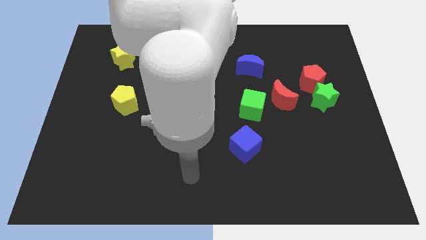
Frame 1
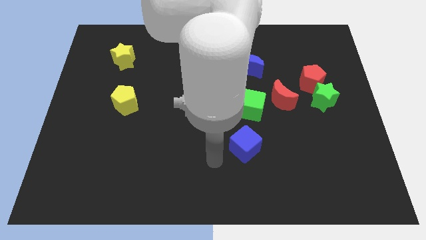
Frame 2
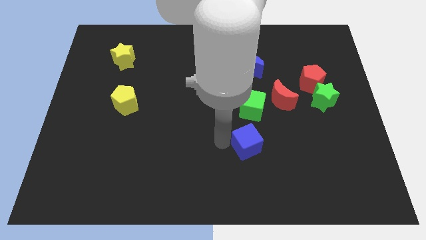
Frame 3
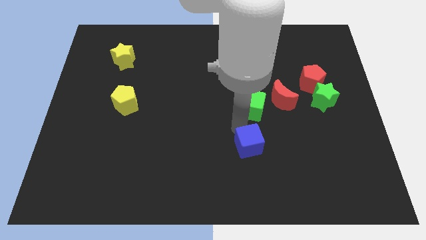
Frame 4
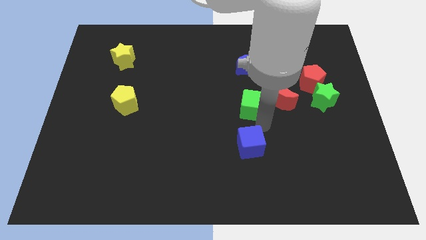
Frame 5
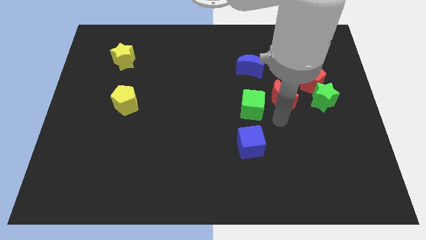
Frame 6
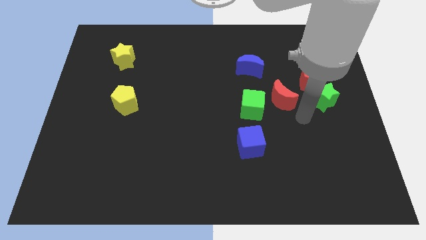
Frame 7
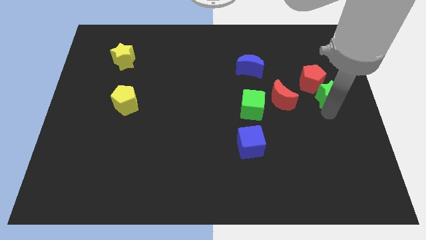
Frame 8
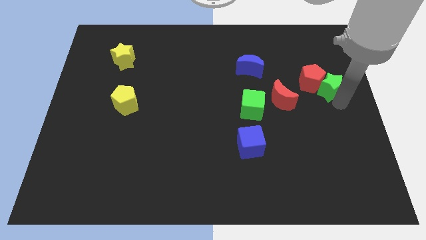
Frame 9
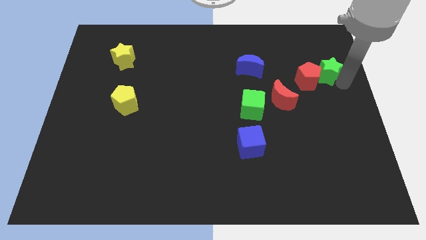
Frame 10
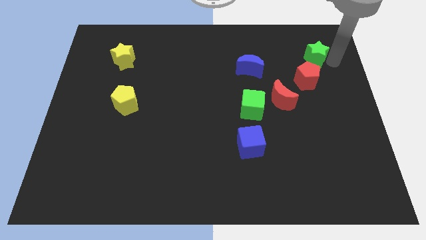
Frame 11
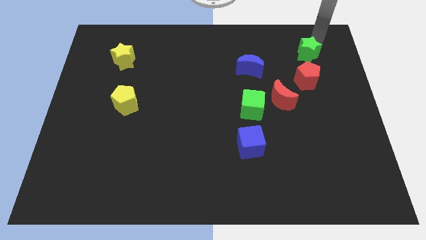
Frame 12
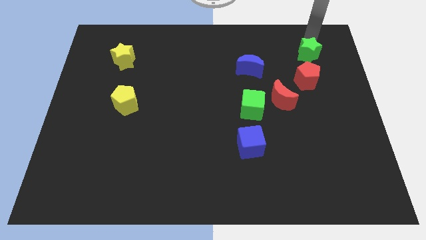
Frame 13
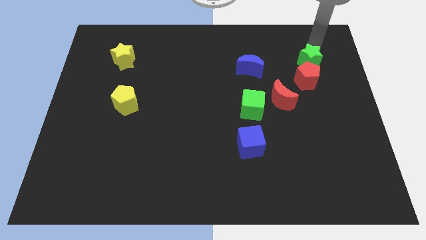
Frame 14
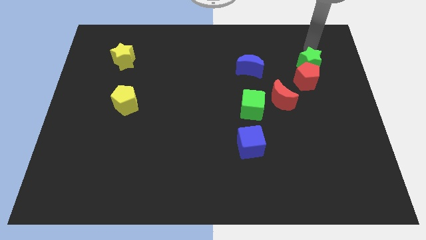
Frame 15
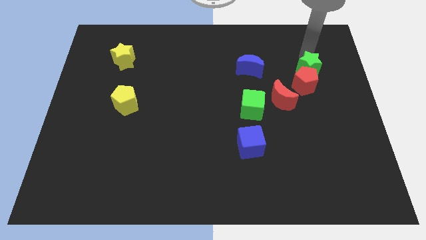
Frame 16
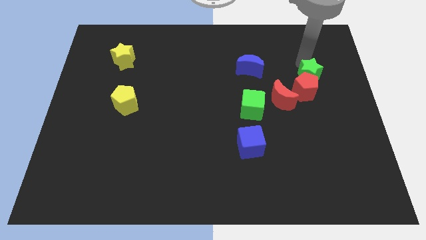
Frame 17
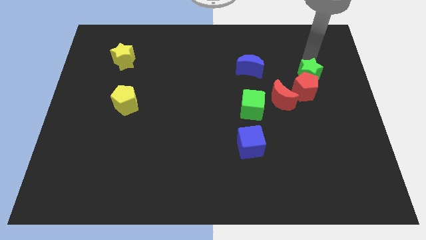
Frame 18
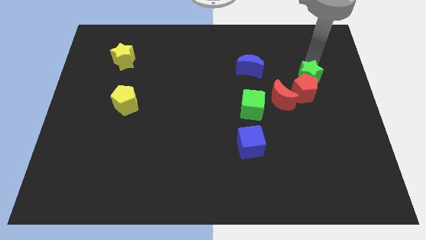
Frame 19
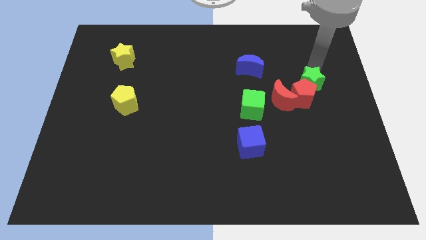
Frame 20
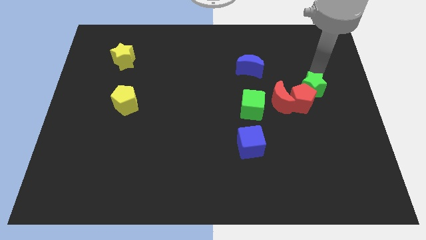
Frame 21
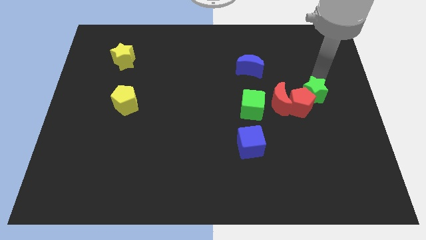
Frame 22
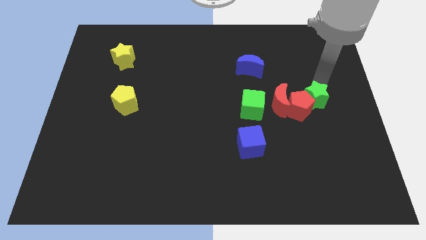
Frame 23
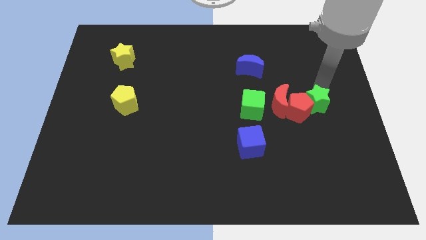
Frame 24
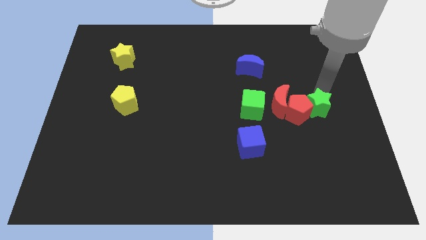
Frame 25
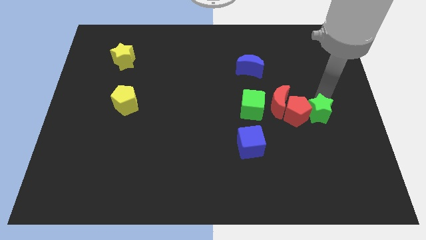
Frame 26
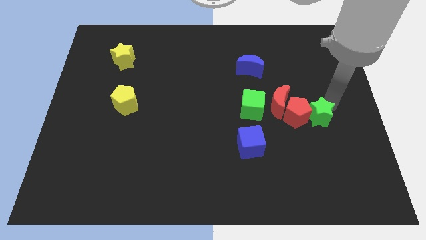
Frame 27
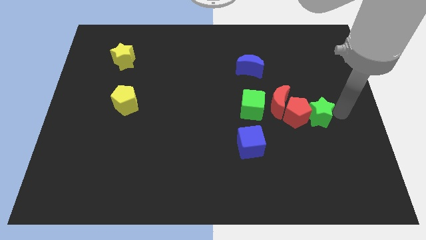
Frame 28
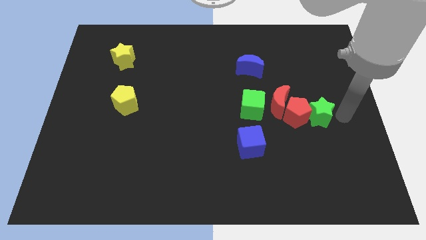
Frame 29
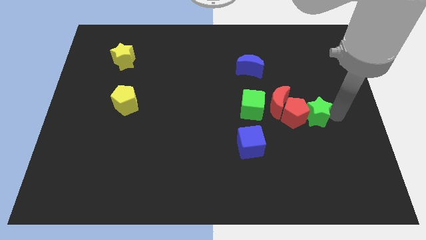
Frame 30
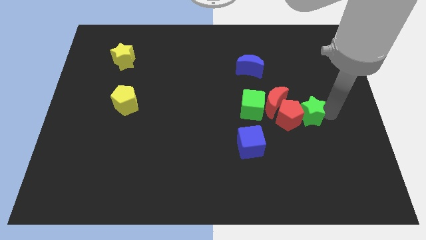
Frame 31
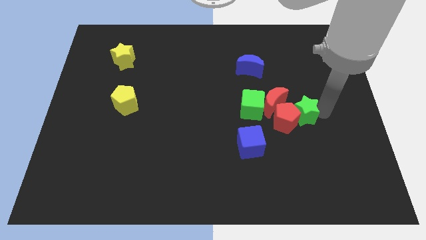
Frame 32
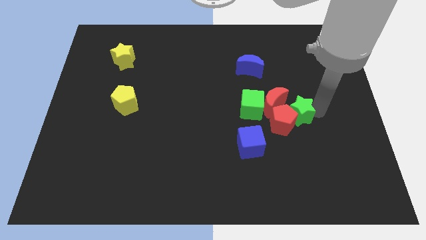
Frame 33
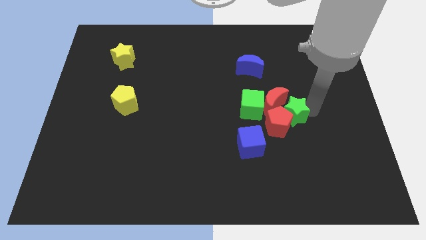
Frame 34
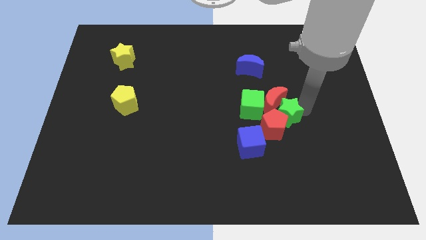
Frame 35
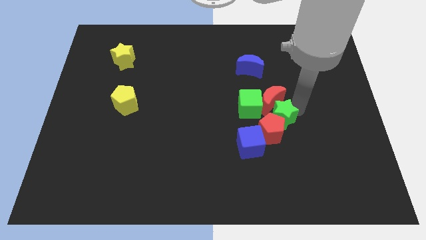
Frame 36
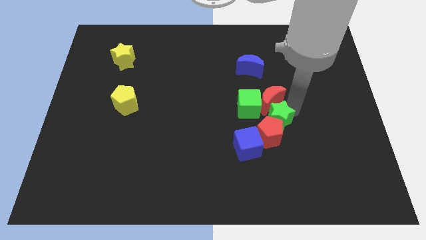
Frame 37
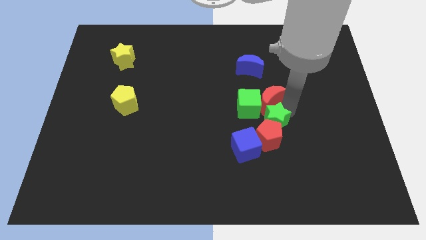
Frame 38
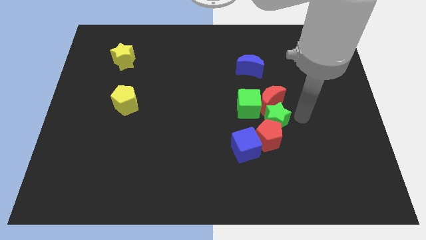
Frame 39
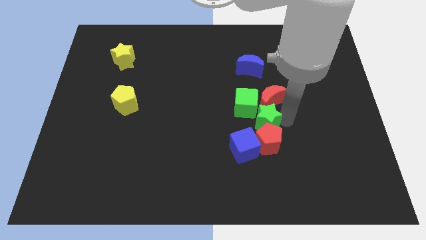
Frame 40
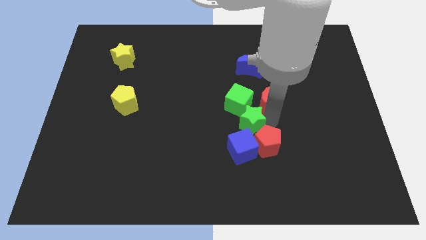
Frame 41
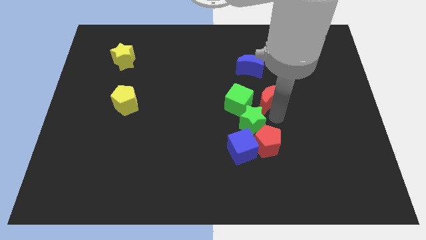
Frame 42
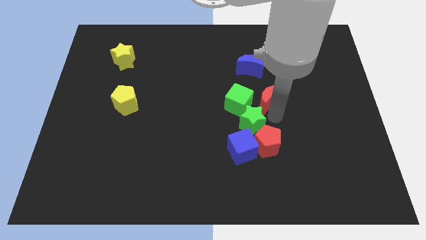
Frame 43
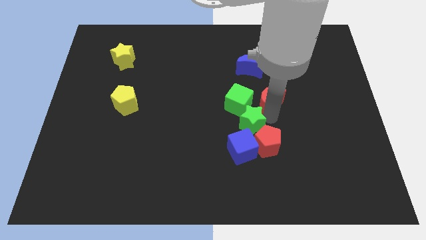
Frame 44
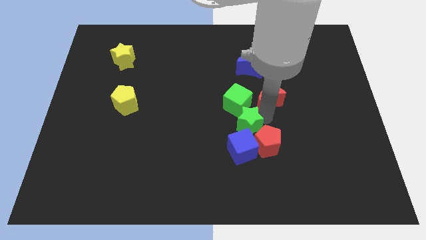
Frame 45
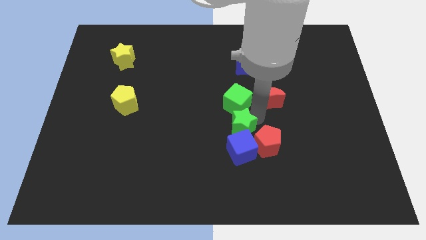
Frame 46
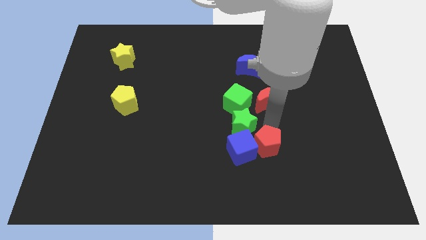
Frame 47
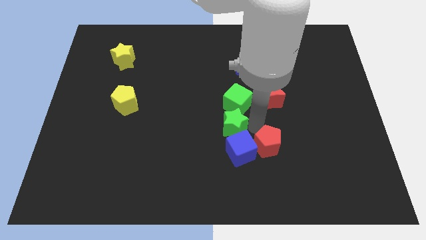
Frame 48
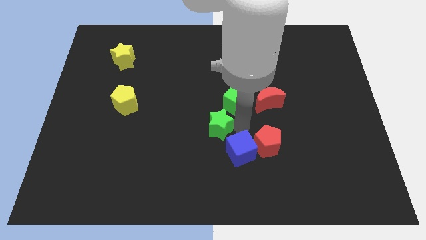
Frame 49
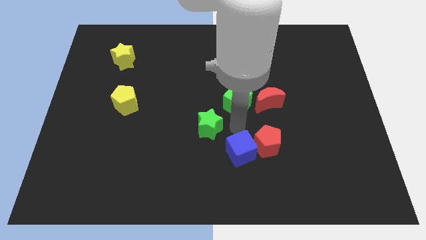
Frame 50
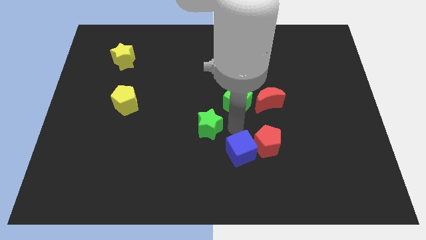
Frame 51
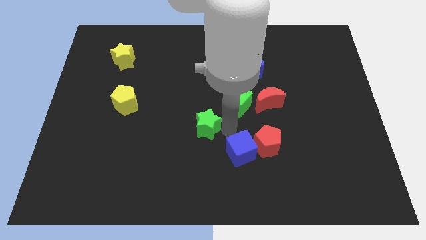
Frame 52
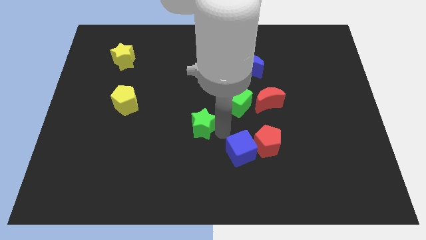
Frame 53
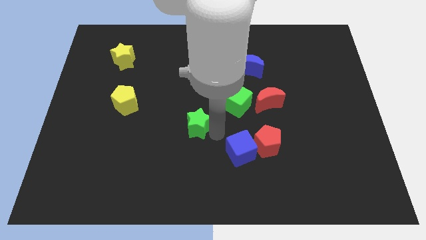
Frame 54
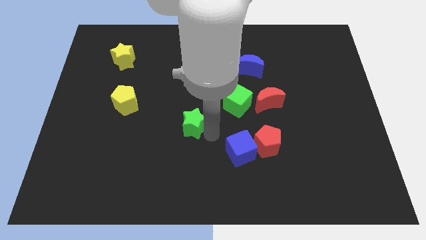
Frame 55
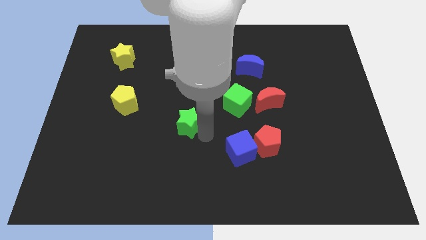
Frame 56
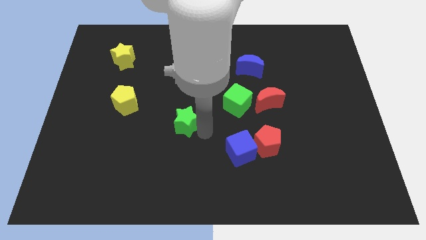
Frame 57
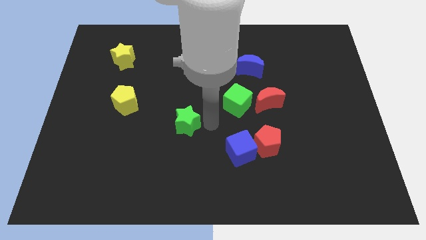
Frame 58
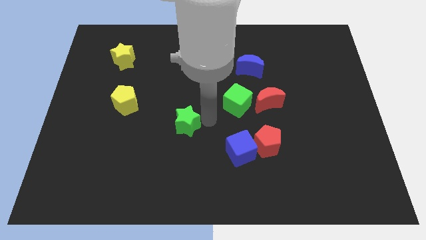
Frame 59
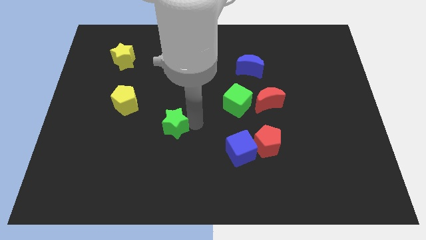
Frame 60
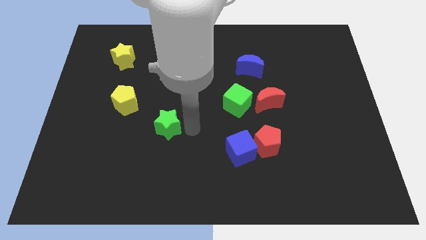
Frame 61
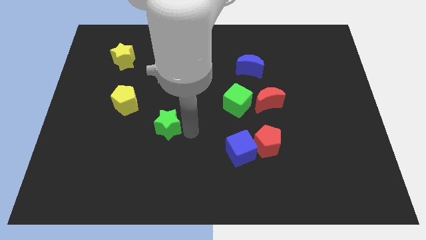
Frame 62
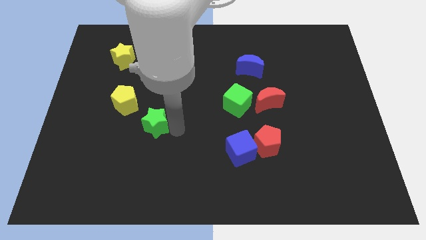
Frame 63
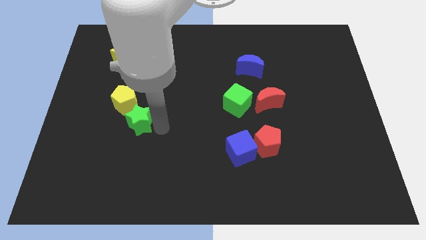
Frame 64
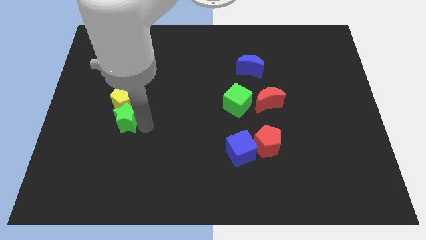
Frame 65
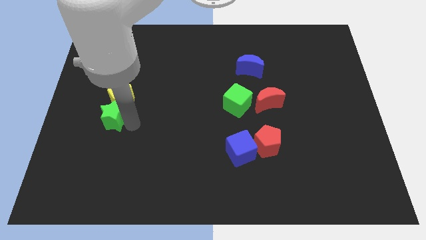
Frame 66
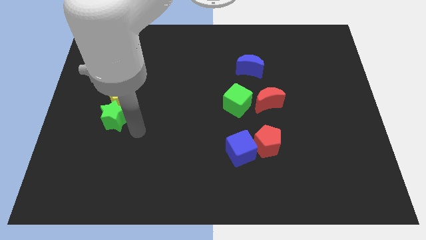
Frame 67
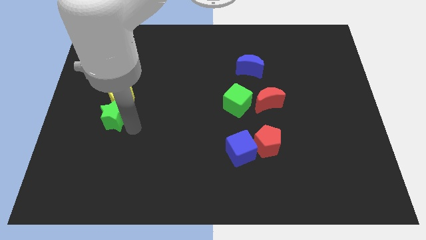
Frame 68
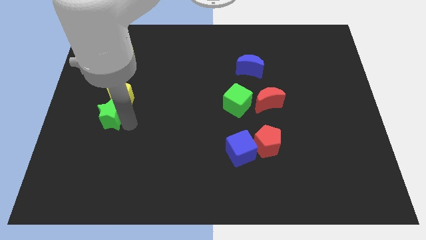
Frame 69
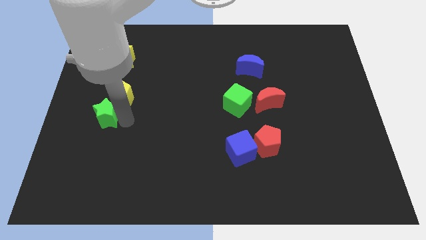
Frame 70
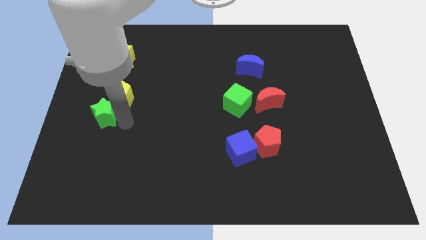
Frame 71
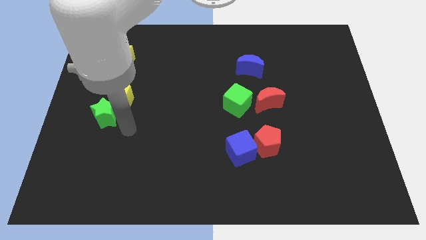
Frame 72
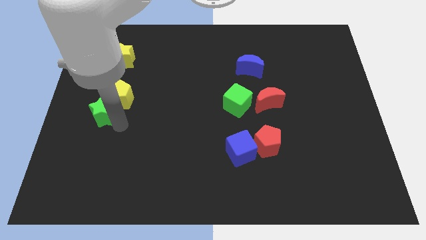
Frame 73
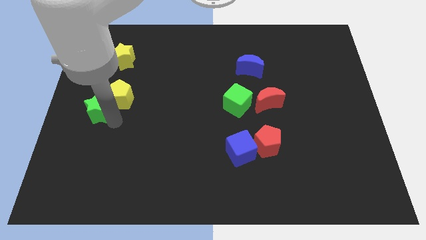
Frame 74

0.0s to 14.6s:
move the green star to the center left
